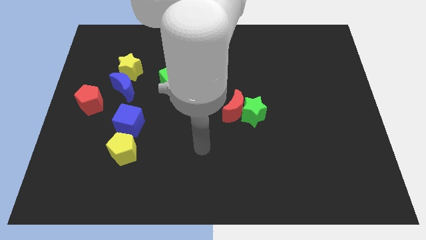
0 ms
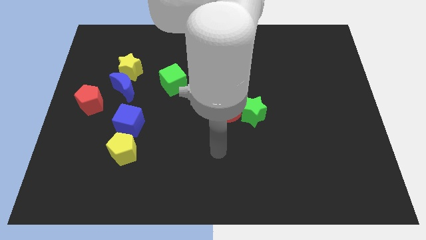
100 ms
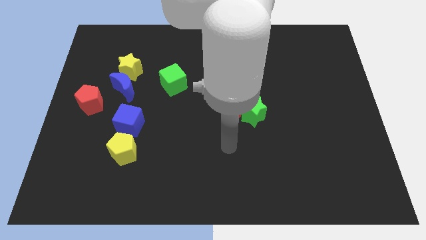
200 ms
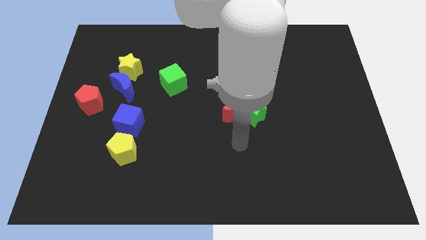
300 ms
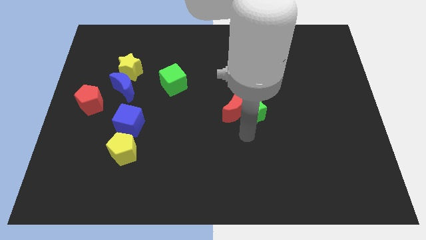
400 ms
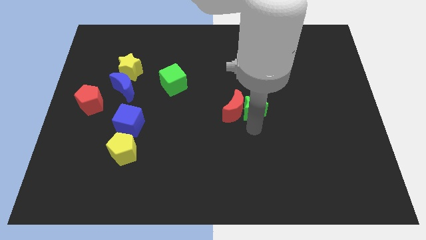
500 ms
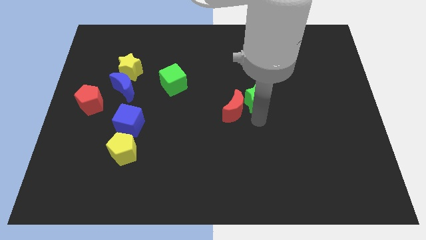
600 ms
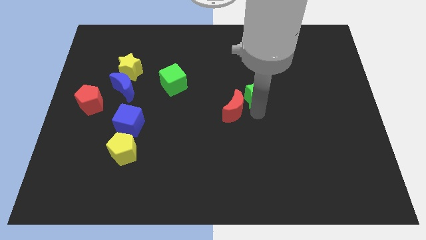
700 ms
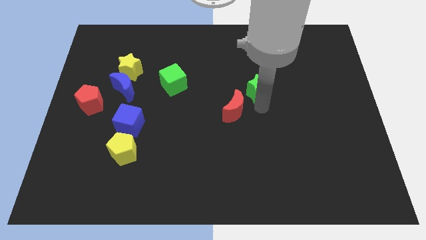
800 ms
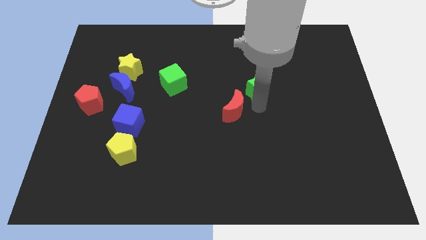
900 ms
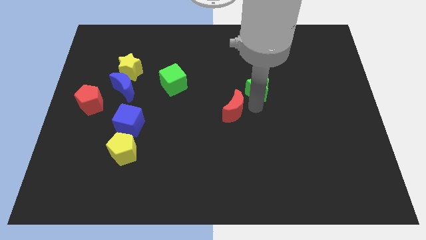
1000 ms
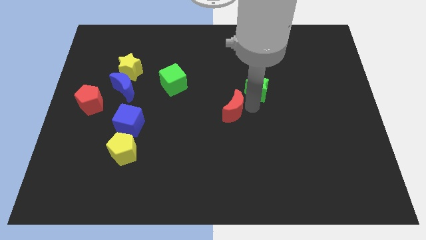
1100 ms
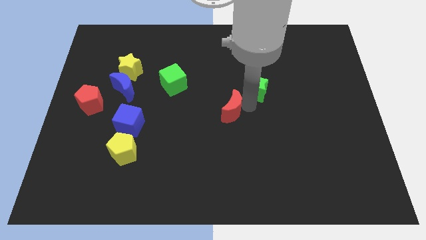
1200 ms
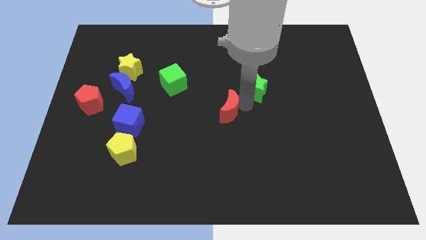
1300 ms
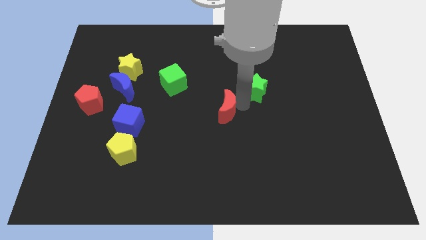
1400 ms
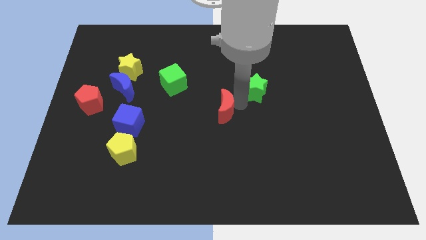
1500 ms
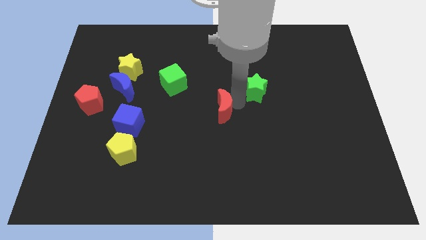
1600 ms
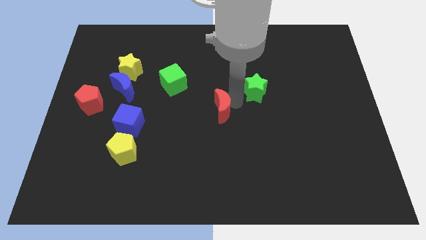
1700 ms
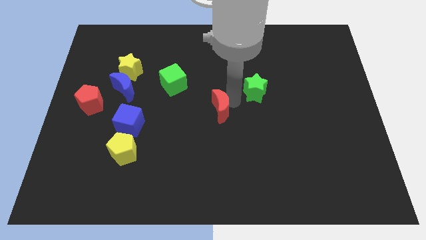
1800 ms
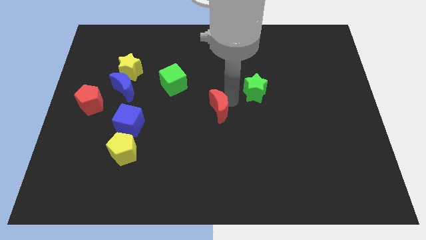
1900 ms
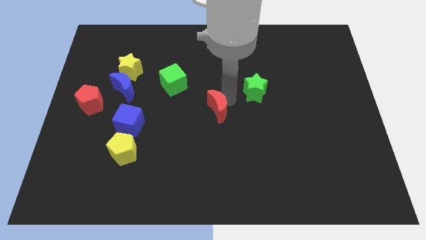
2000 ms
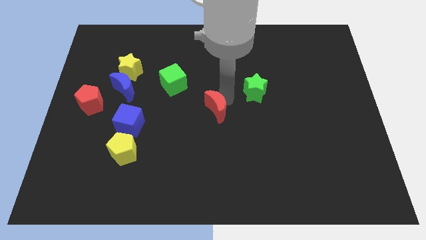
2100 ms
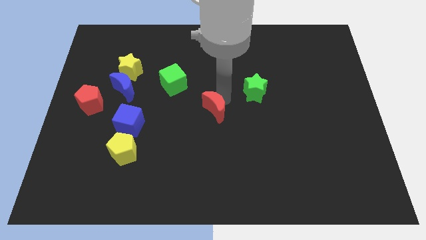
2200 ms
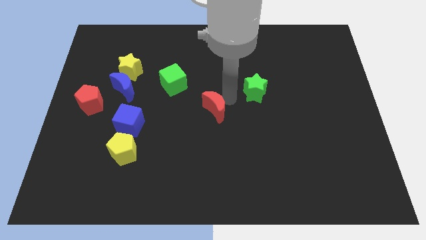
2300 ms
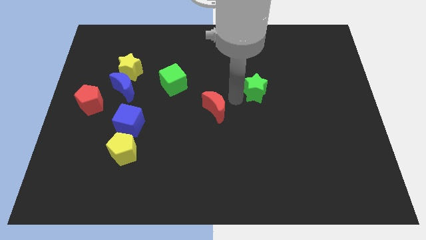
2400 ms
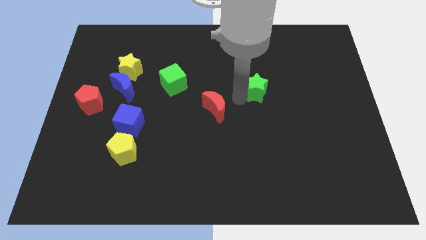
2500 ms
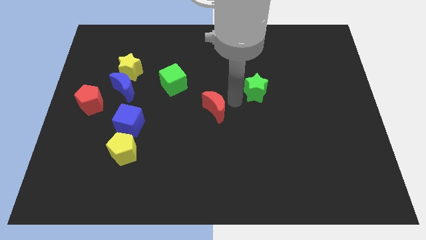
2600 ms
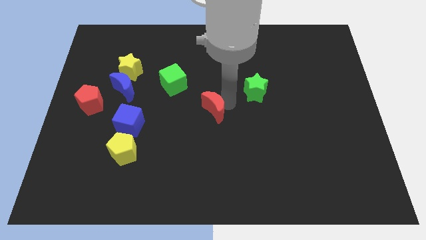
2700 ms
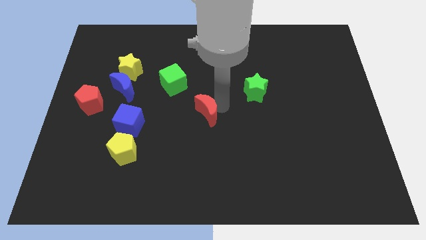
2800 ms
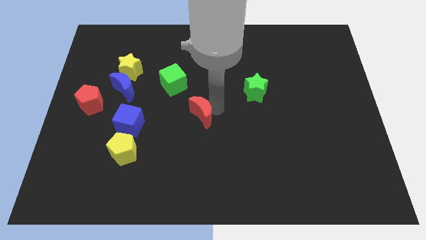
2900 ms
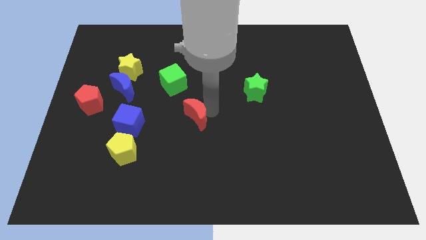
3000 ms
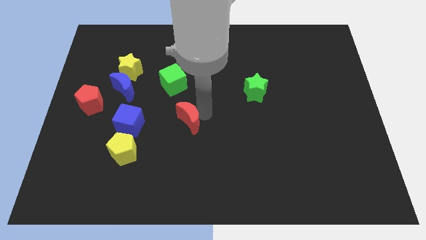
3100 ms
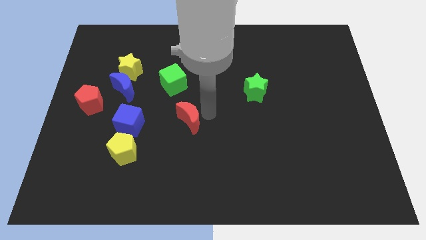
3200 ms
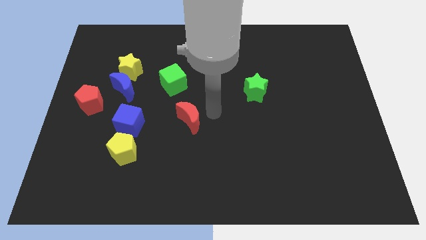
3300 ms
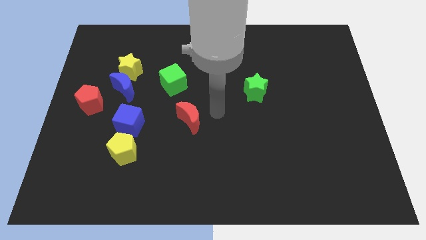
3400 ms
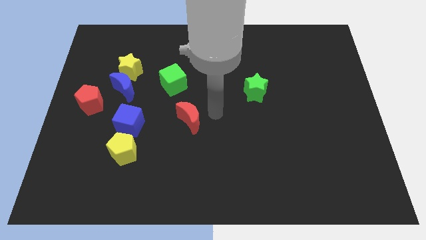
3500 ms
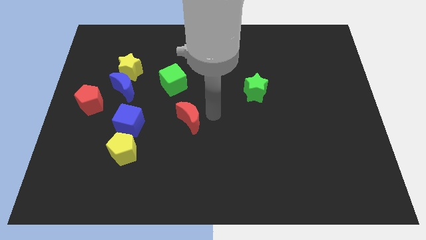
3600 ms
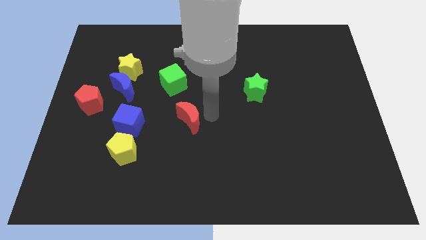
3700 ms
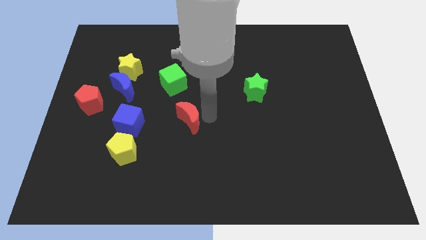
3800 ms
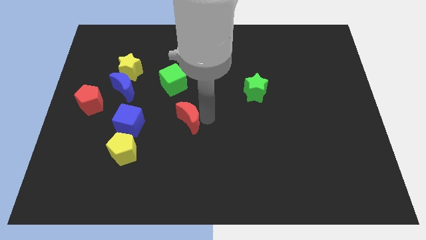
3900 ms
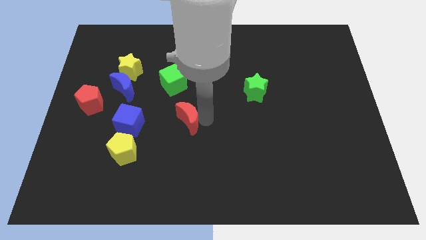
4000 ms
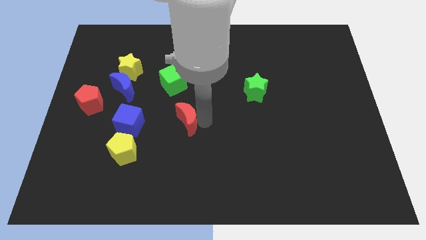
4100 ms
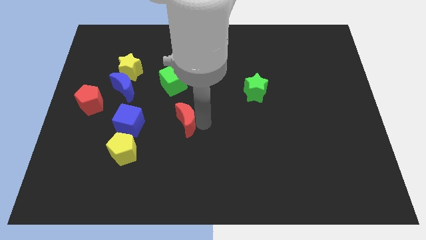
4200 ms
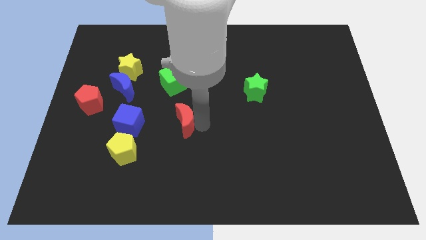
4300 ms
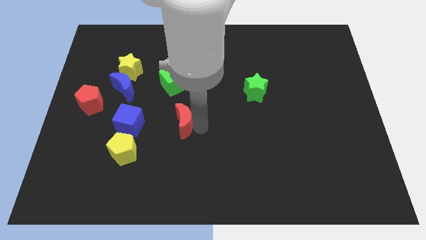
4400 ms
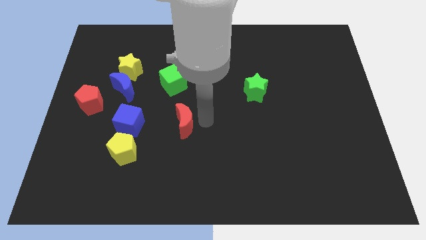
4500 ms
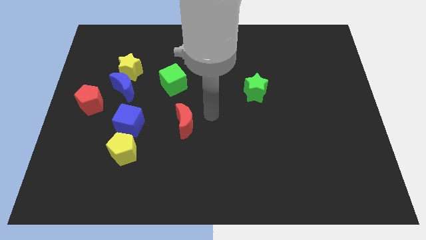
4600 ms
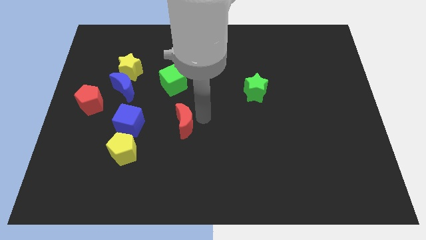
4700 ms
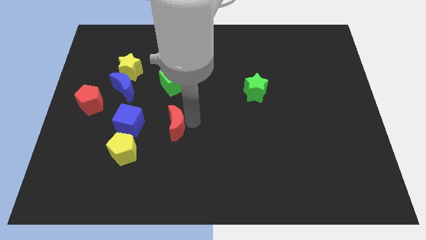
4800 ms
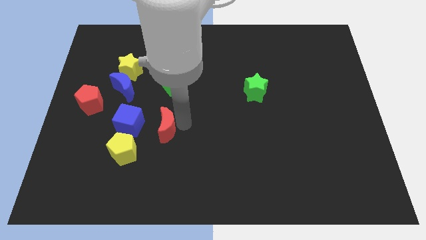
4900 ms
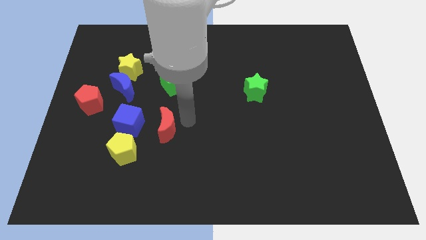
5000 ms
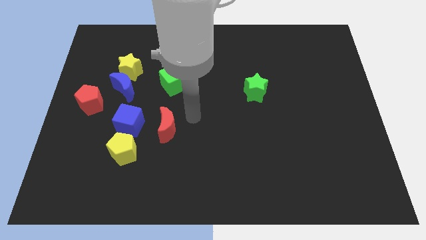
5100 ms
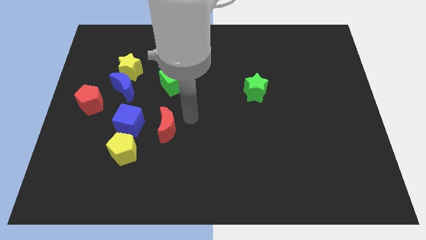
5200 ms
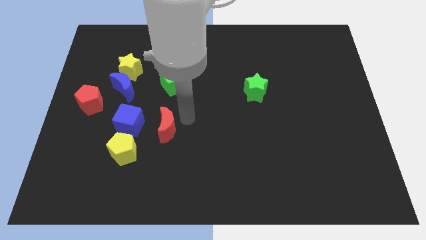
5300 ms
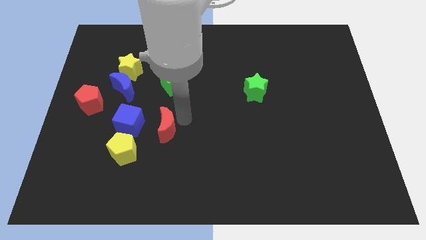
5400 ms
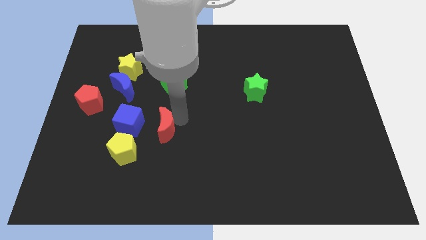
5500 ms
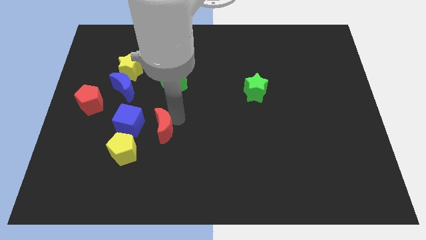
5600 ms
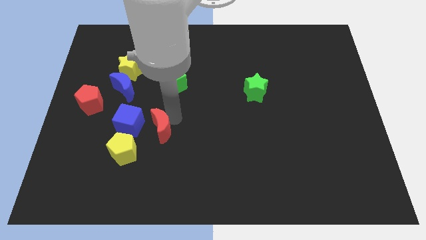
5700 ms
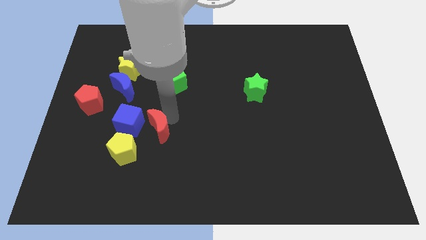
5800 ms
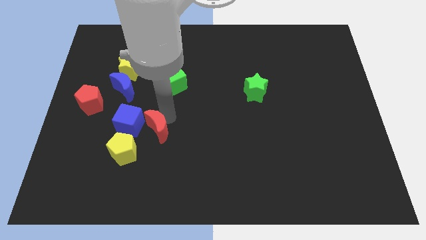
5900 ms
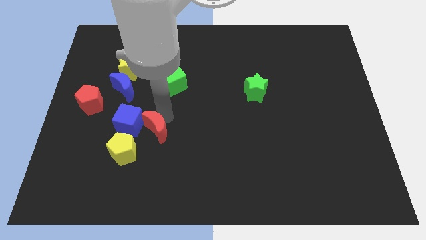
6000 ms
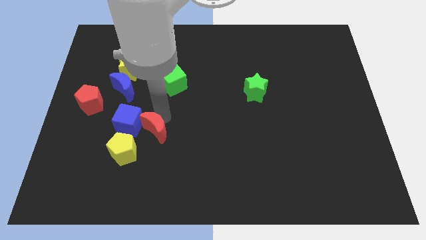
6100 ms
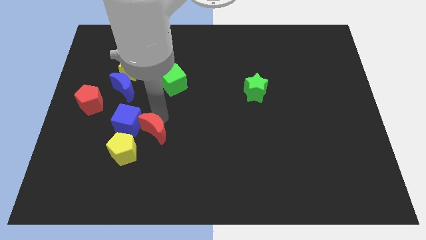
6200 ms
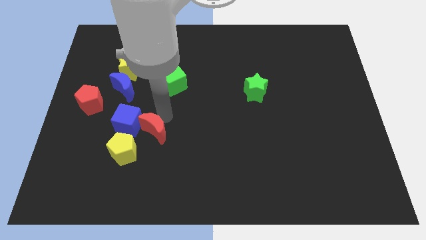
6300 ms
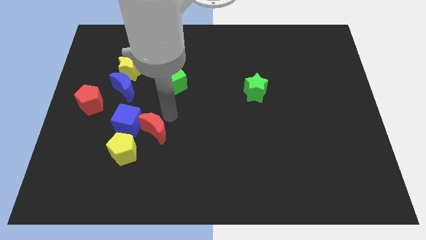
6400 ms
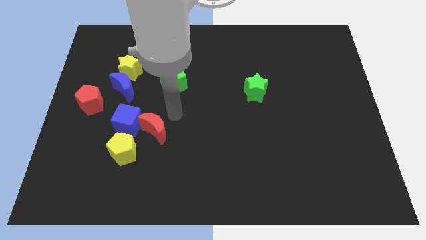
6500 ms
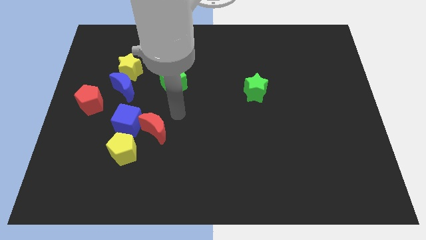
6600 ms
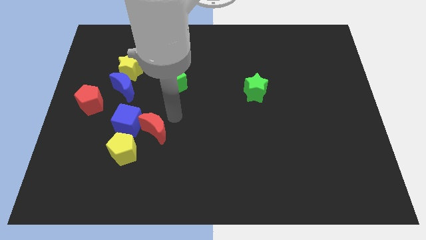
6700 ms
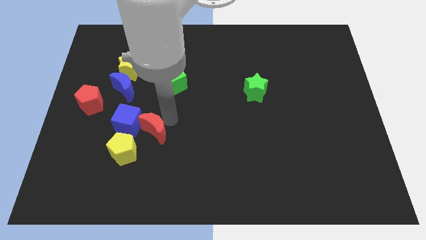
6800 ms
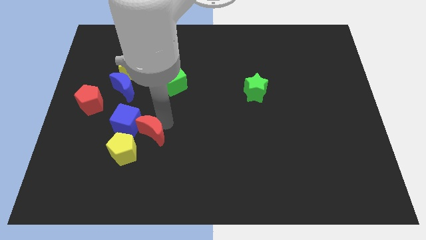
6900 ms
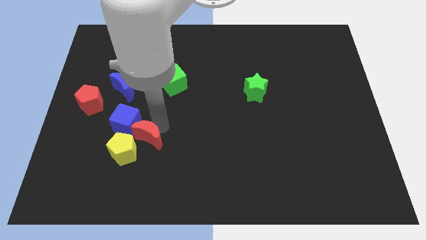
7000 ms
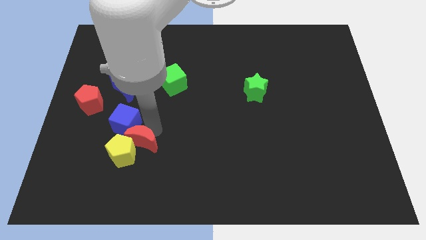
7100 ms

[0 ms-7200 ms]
move the red moon below the blue cube

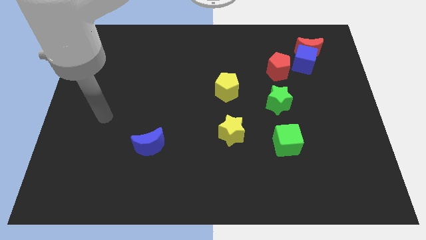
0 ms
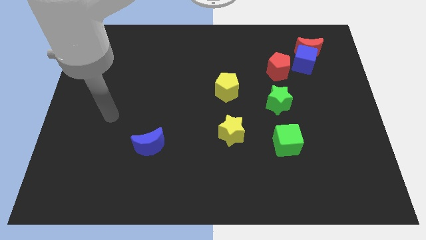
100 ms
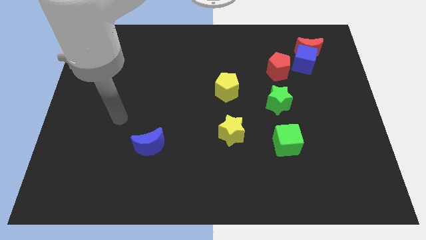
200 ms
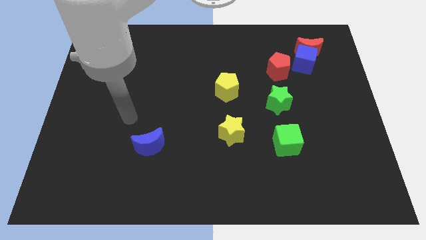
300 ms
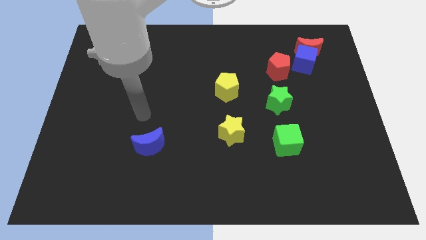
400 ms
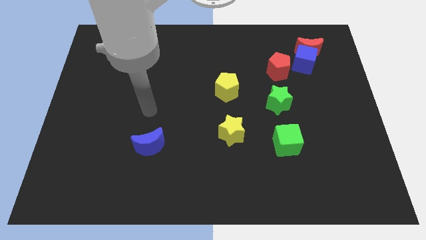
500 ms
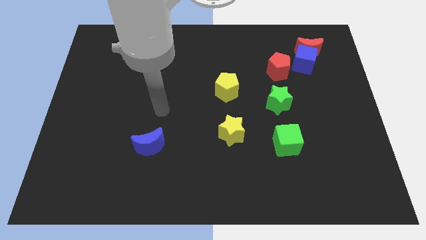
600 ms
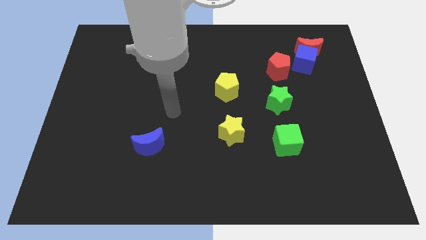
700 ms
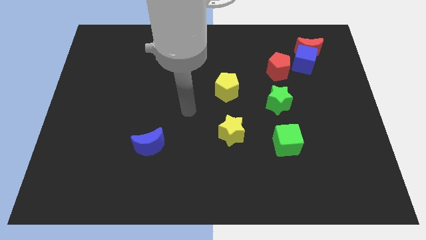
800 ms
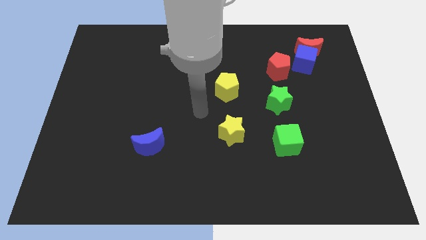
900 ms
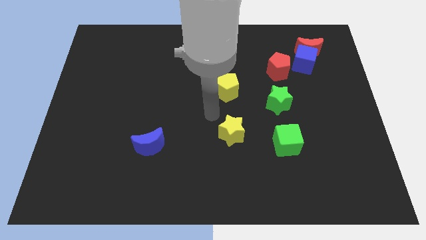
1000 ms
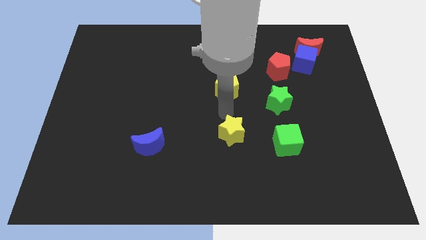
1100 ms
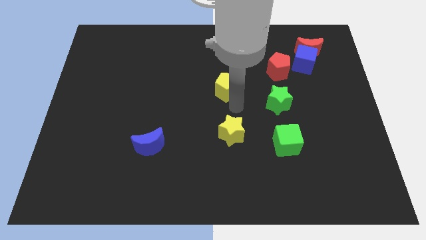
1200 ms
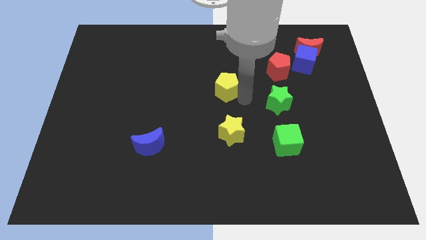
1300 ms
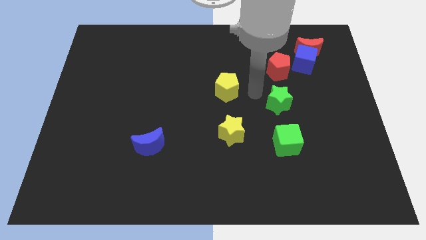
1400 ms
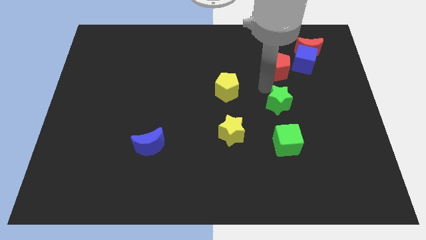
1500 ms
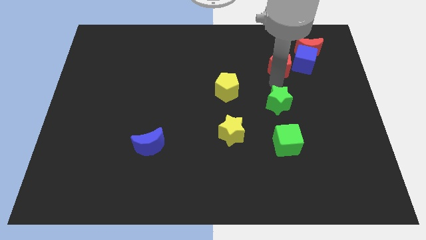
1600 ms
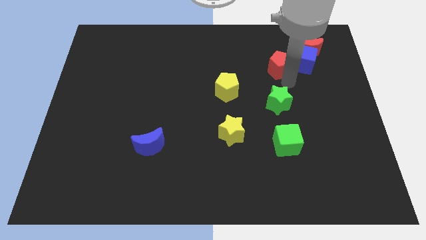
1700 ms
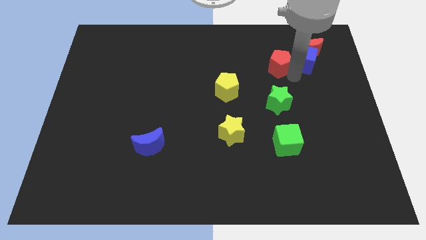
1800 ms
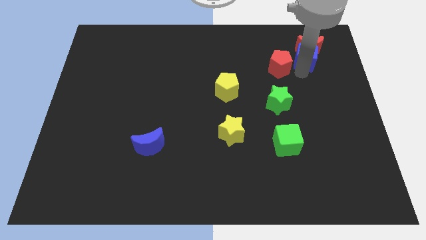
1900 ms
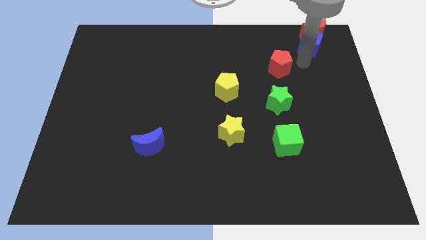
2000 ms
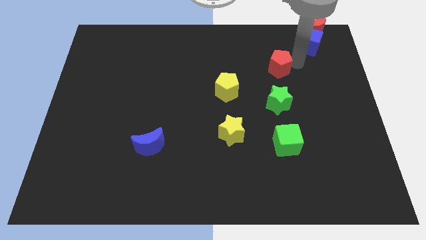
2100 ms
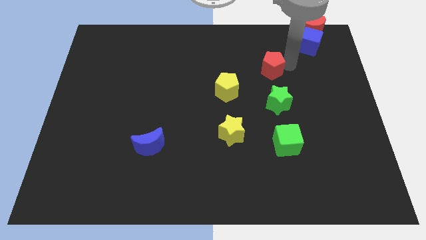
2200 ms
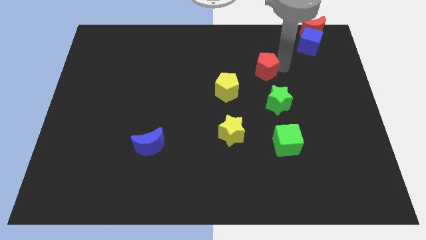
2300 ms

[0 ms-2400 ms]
push the red pentagon to the top right side of the yellow pentagon
